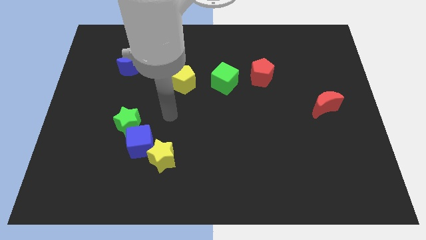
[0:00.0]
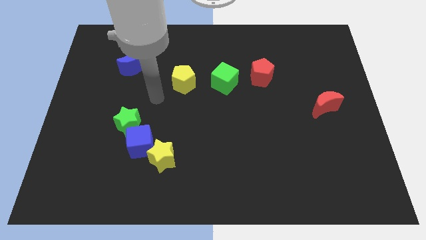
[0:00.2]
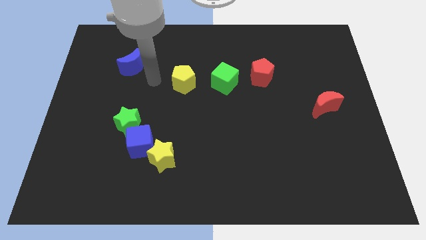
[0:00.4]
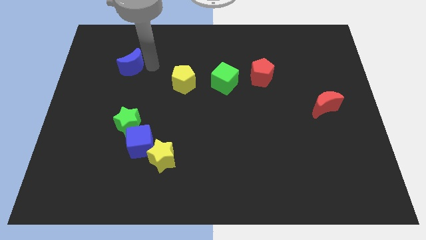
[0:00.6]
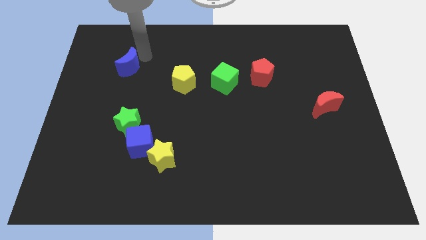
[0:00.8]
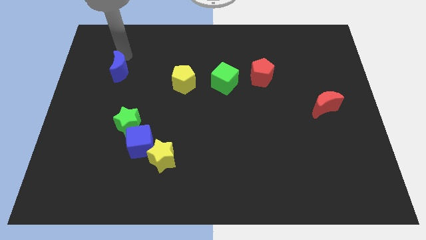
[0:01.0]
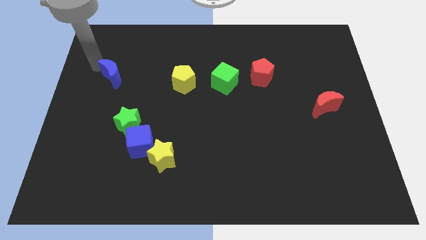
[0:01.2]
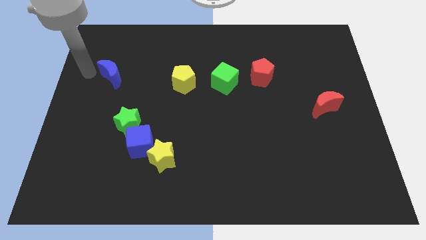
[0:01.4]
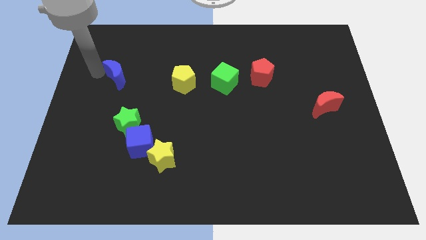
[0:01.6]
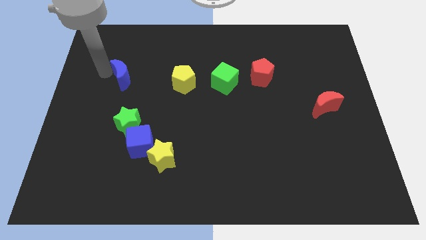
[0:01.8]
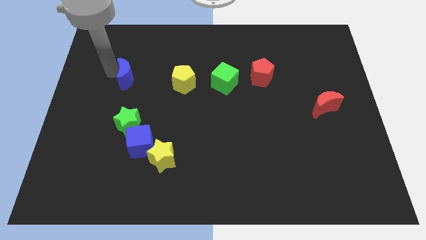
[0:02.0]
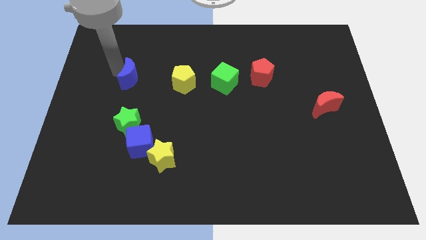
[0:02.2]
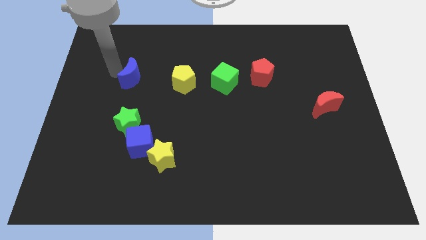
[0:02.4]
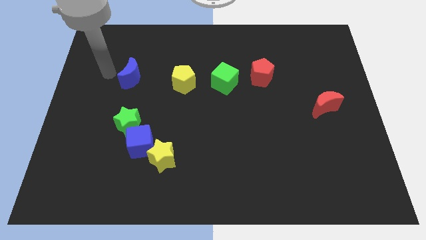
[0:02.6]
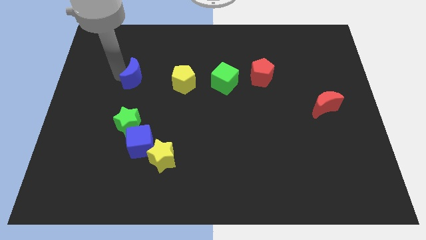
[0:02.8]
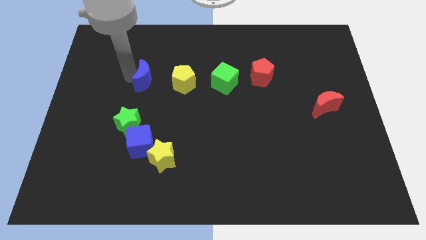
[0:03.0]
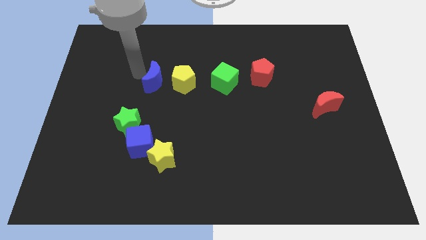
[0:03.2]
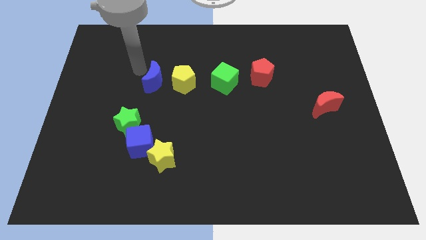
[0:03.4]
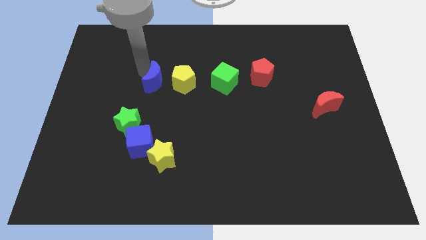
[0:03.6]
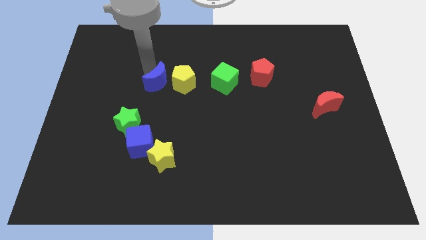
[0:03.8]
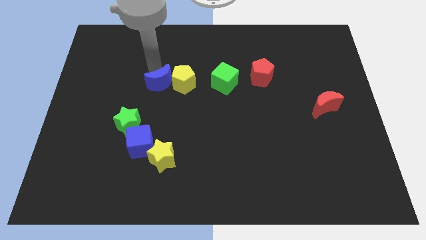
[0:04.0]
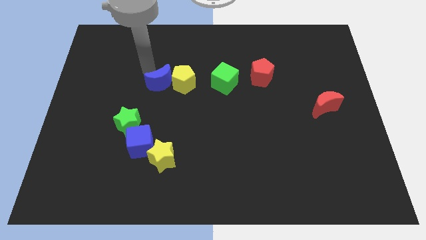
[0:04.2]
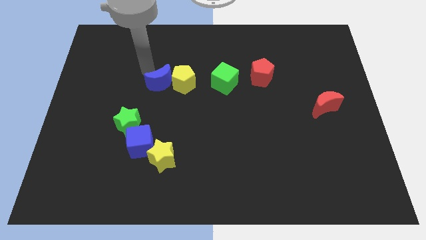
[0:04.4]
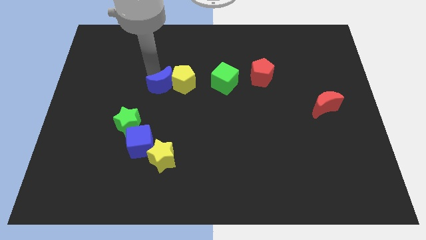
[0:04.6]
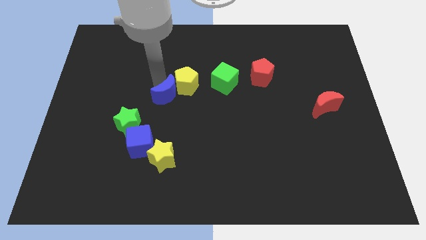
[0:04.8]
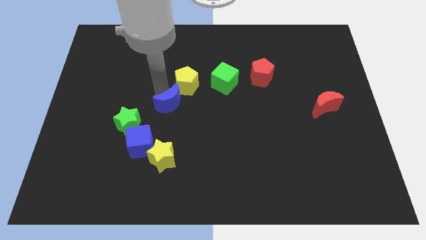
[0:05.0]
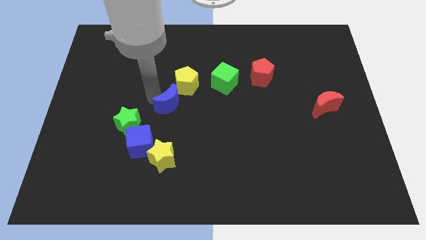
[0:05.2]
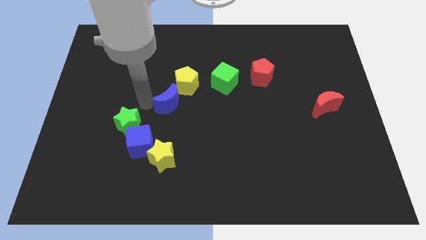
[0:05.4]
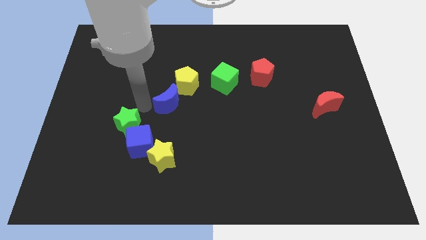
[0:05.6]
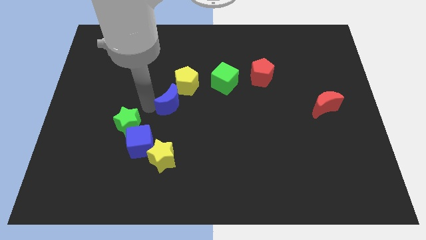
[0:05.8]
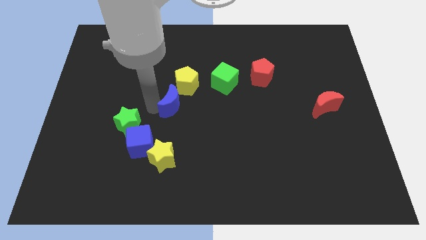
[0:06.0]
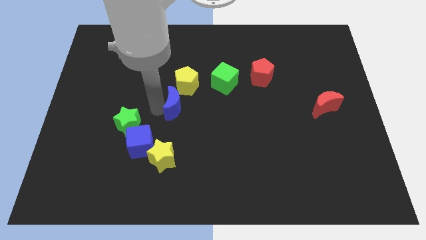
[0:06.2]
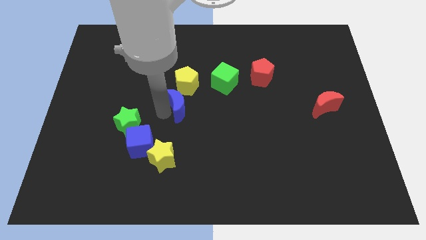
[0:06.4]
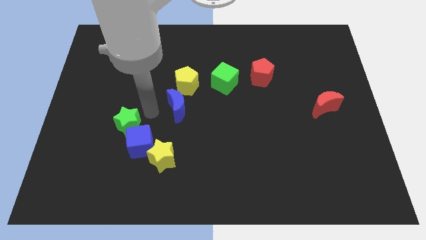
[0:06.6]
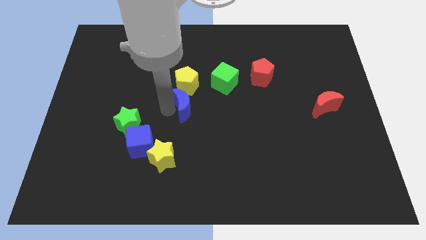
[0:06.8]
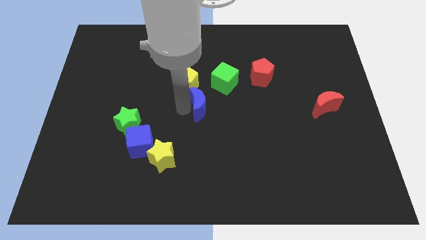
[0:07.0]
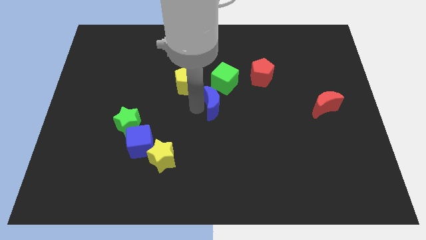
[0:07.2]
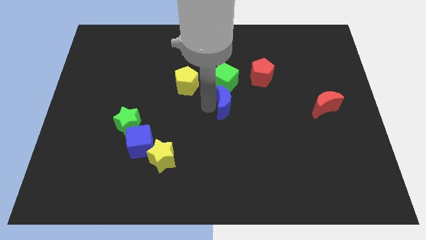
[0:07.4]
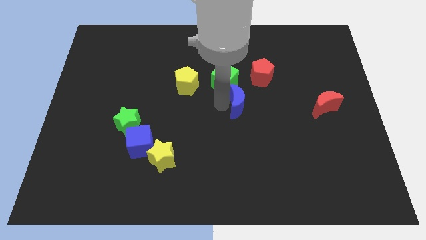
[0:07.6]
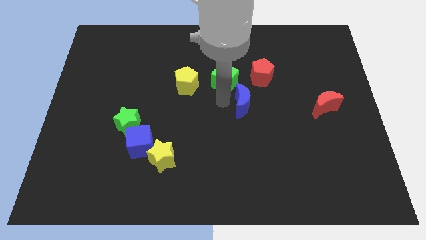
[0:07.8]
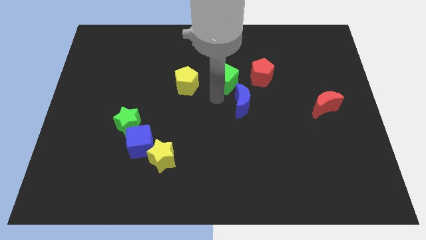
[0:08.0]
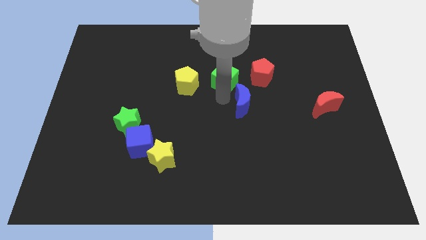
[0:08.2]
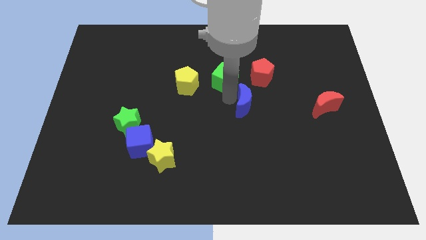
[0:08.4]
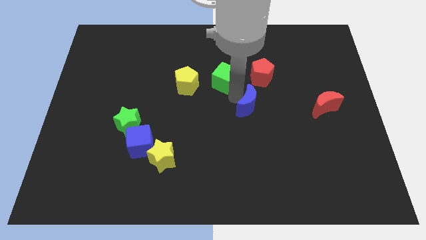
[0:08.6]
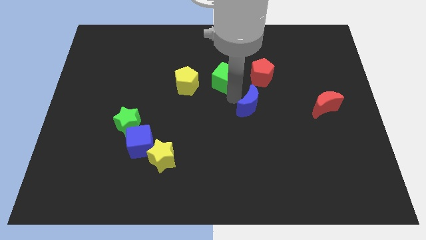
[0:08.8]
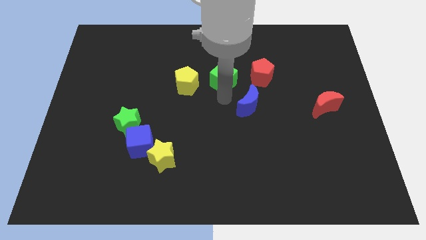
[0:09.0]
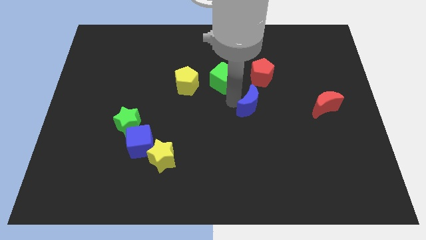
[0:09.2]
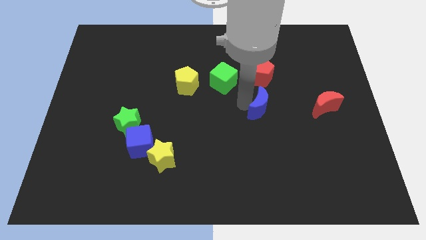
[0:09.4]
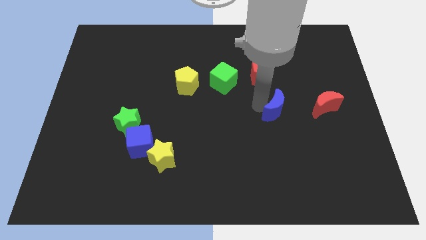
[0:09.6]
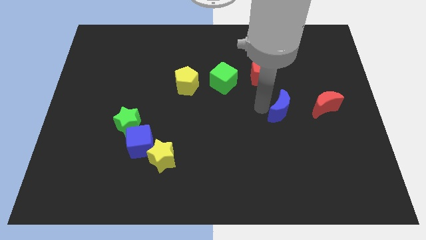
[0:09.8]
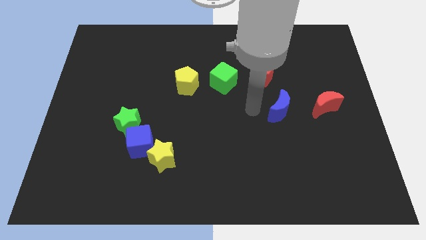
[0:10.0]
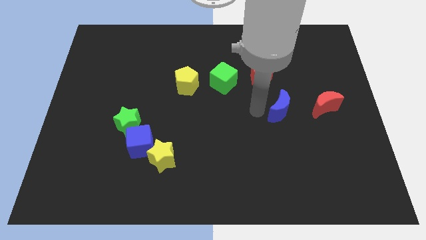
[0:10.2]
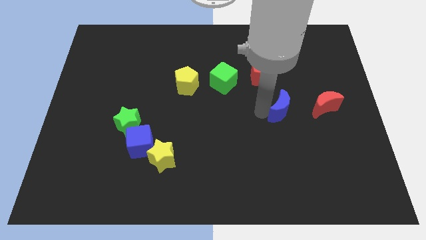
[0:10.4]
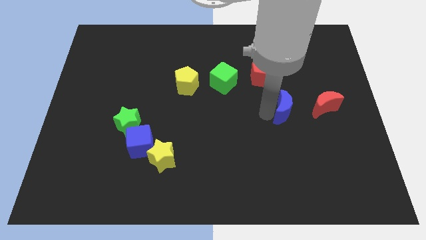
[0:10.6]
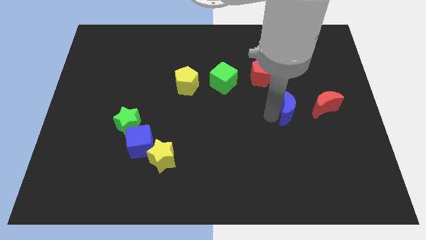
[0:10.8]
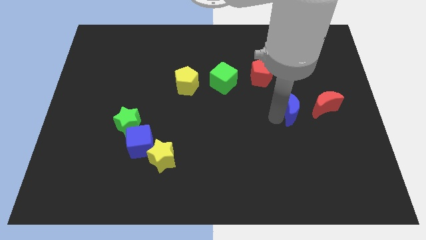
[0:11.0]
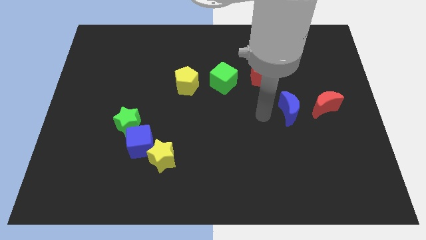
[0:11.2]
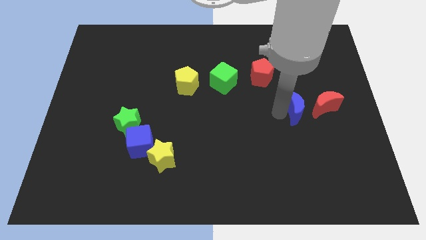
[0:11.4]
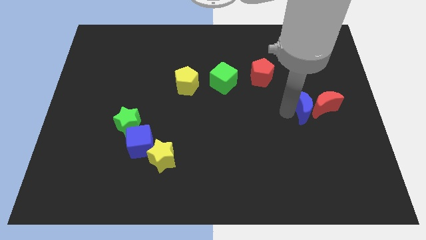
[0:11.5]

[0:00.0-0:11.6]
move the blue moon towards the red moon

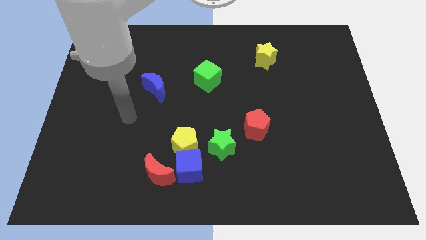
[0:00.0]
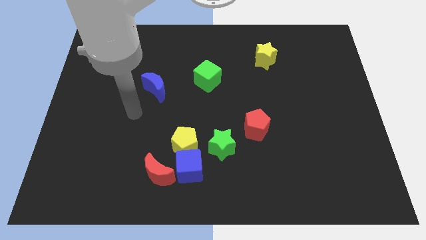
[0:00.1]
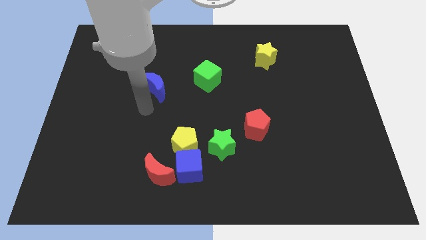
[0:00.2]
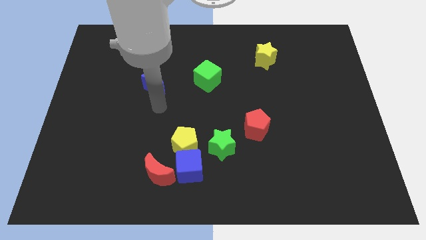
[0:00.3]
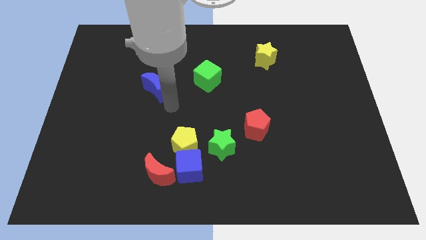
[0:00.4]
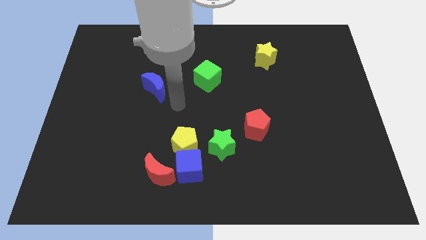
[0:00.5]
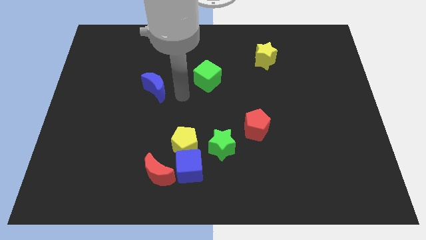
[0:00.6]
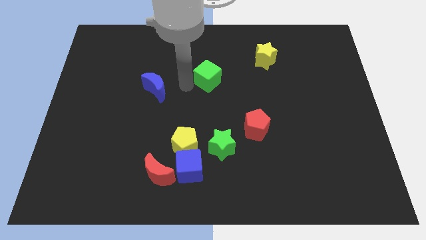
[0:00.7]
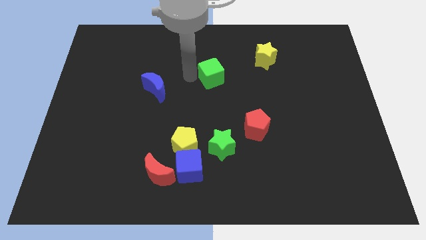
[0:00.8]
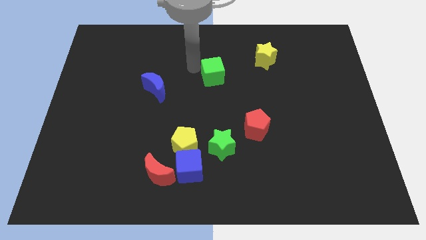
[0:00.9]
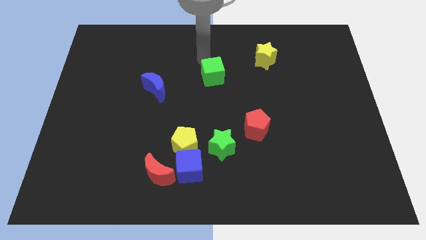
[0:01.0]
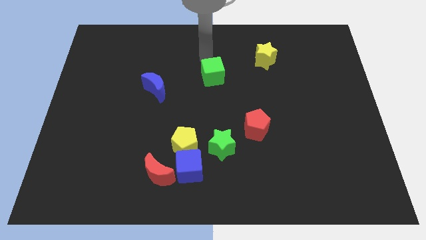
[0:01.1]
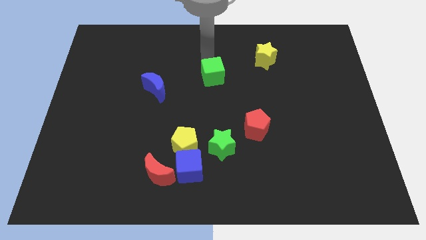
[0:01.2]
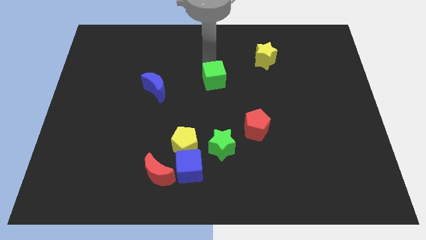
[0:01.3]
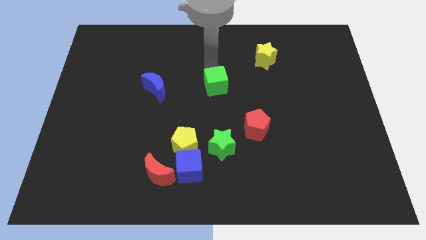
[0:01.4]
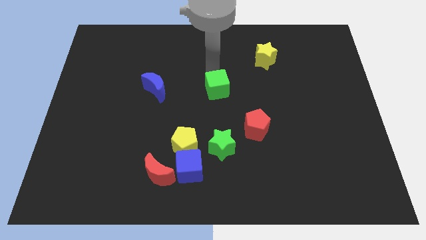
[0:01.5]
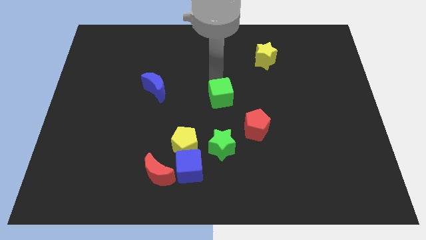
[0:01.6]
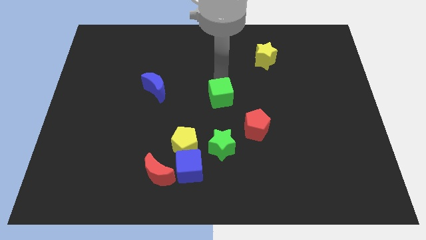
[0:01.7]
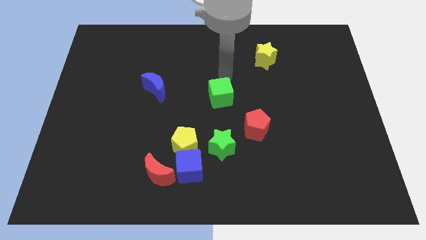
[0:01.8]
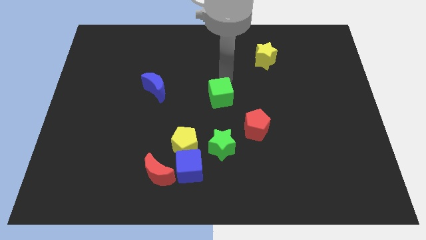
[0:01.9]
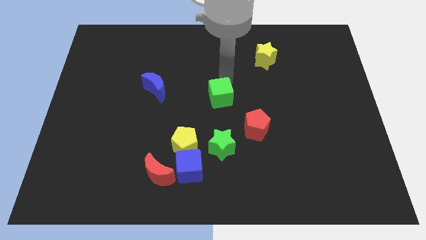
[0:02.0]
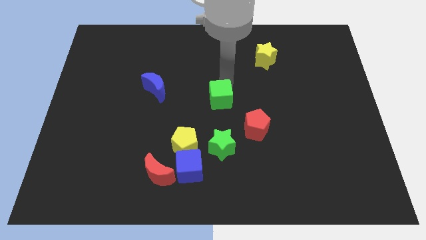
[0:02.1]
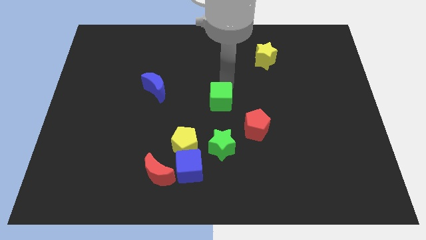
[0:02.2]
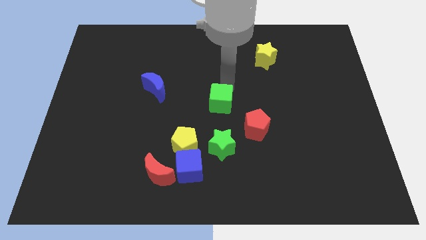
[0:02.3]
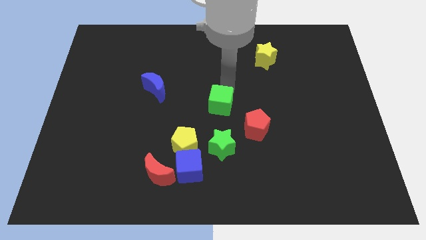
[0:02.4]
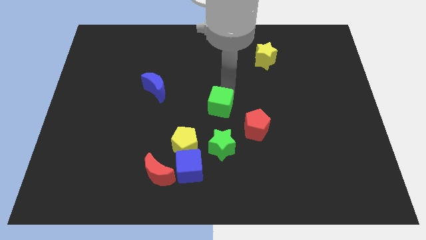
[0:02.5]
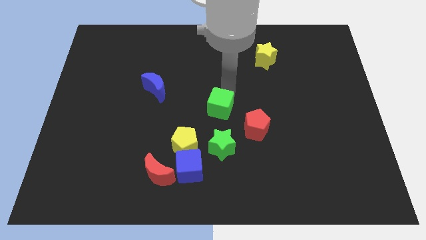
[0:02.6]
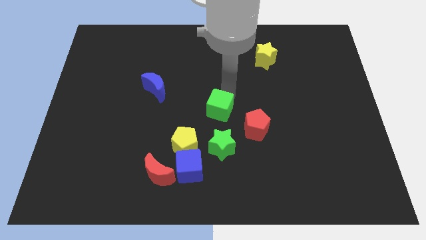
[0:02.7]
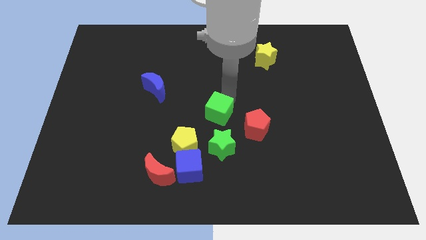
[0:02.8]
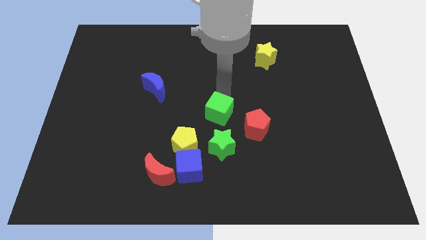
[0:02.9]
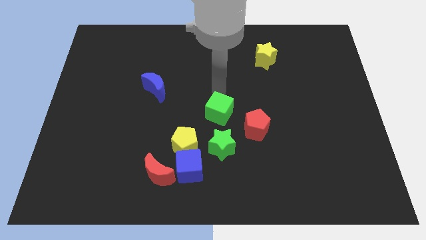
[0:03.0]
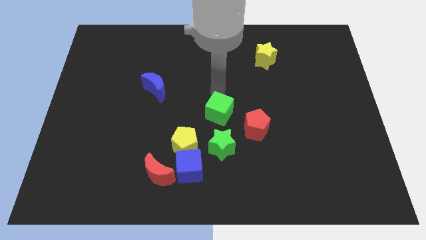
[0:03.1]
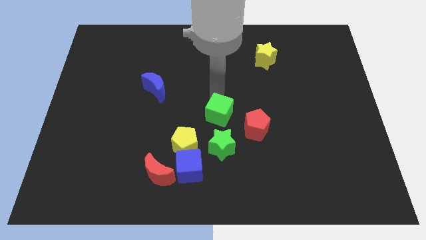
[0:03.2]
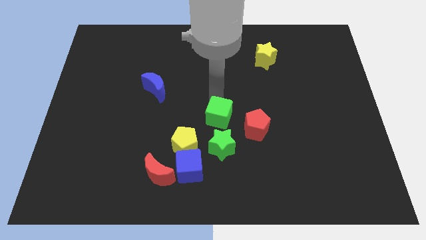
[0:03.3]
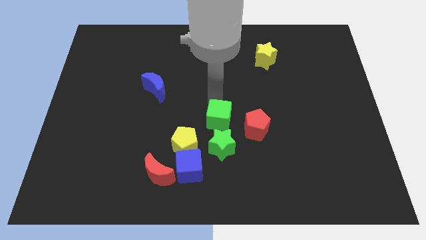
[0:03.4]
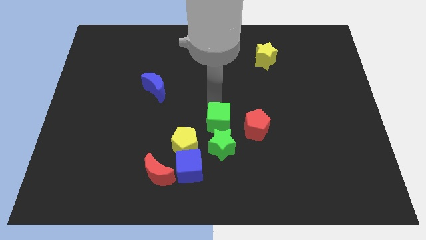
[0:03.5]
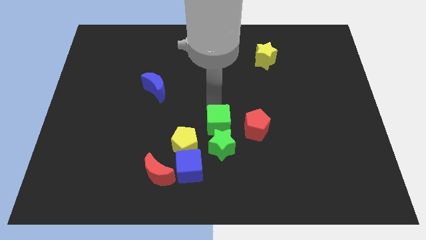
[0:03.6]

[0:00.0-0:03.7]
move the green cube towards the green star
